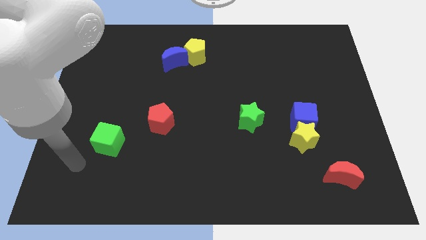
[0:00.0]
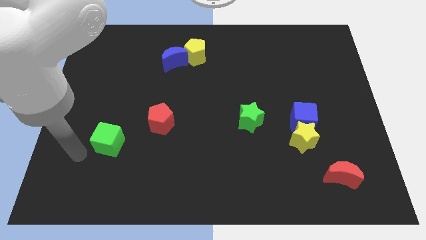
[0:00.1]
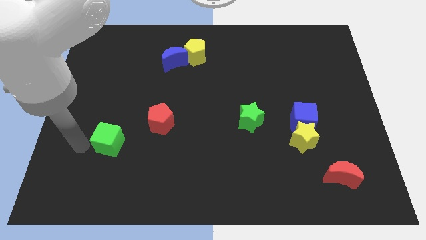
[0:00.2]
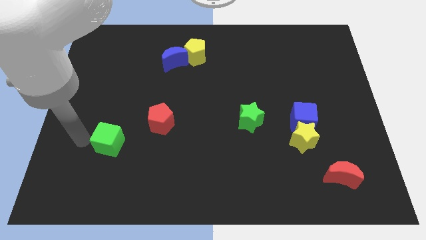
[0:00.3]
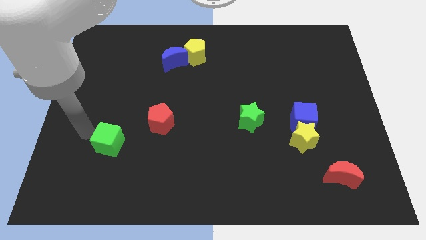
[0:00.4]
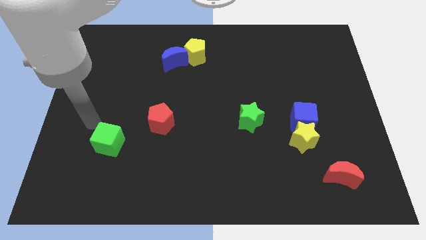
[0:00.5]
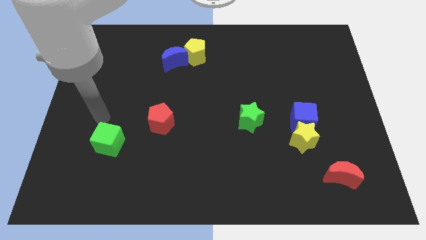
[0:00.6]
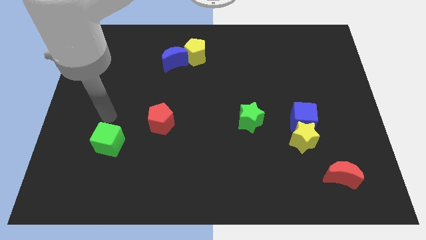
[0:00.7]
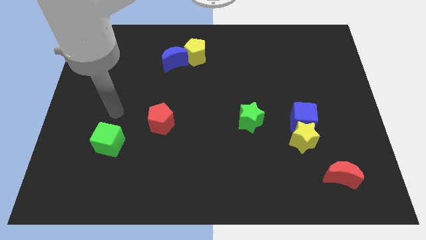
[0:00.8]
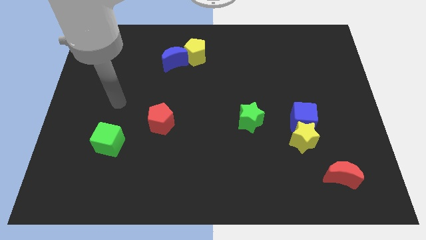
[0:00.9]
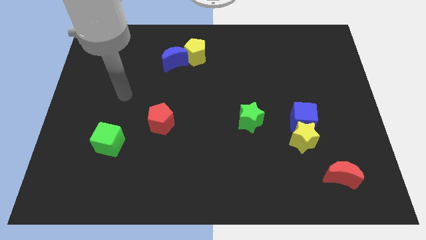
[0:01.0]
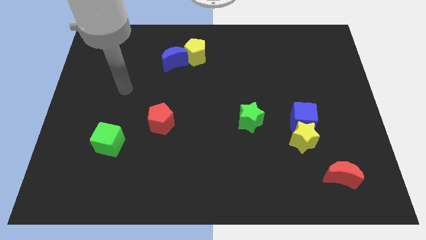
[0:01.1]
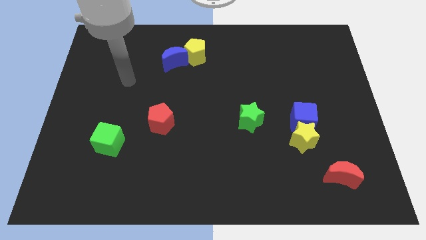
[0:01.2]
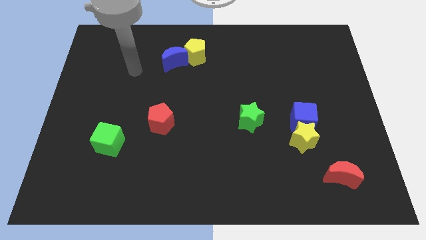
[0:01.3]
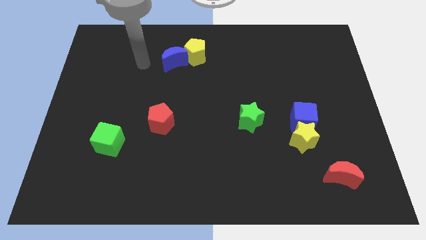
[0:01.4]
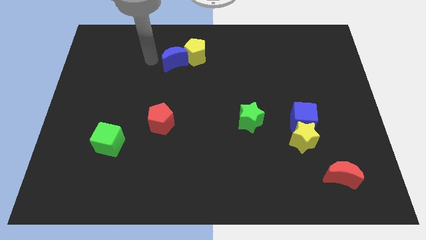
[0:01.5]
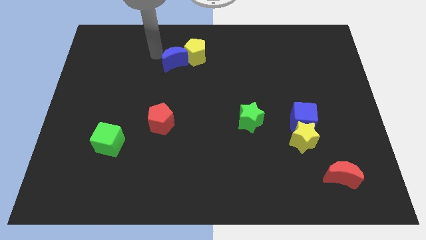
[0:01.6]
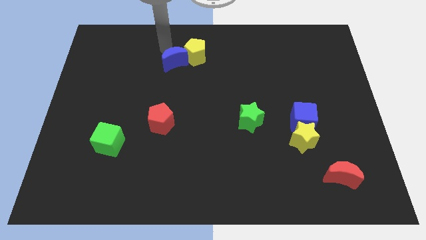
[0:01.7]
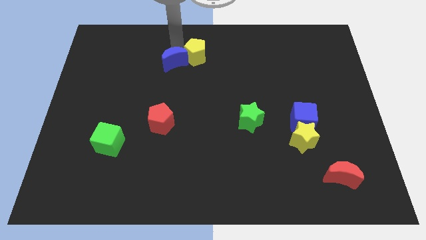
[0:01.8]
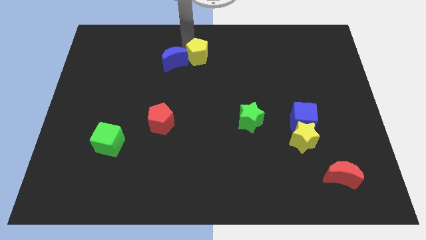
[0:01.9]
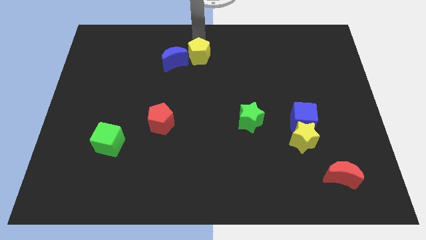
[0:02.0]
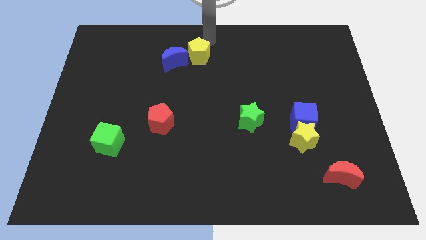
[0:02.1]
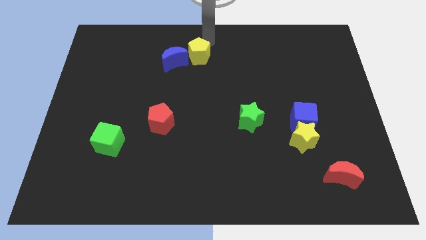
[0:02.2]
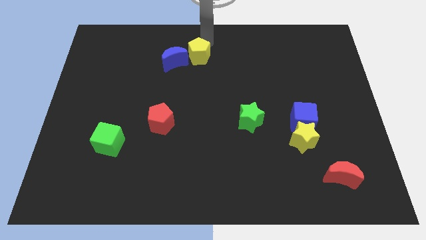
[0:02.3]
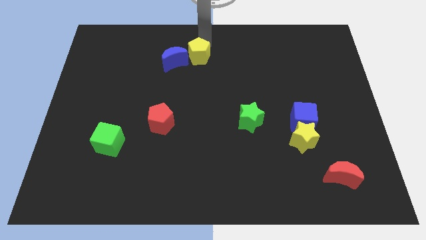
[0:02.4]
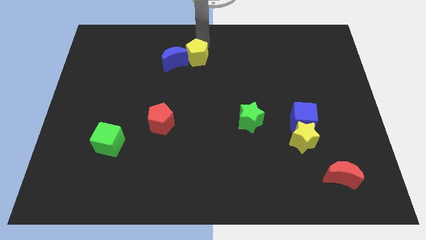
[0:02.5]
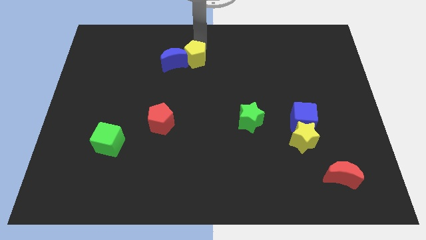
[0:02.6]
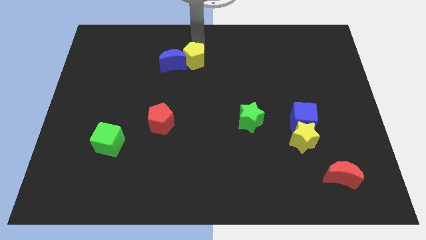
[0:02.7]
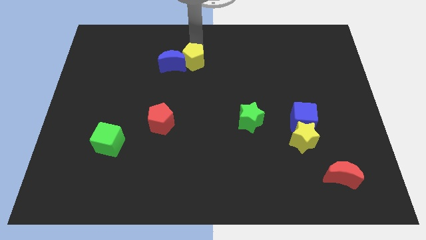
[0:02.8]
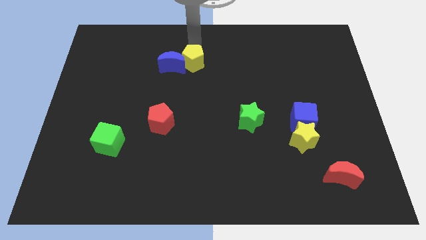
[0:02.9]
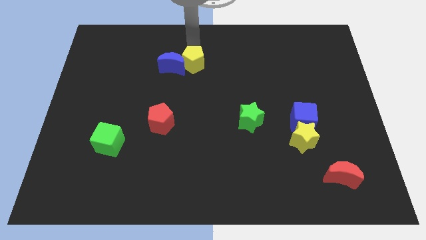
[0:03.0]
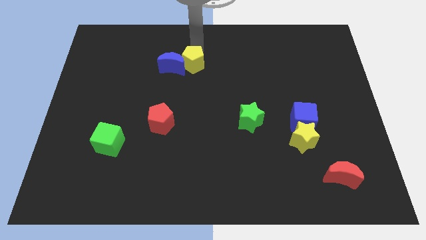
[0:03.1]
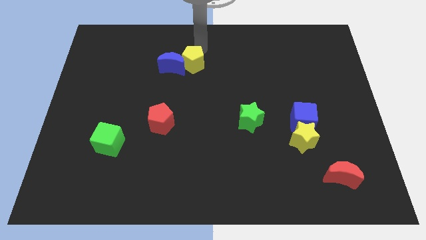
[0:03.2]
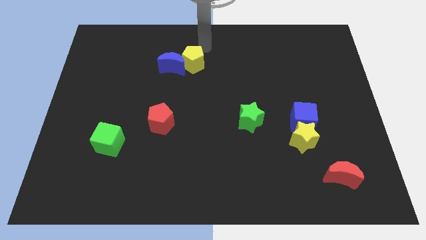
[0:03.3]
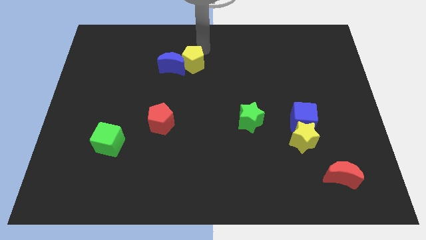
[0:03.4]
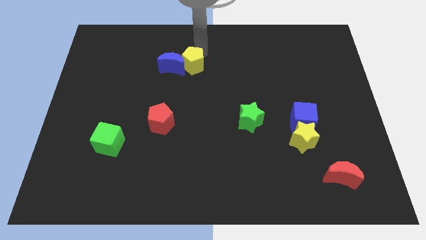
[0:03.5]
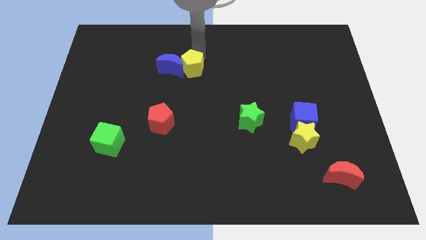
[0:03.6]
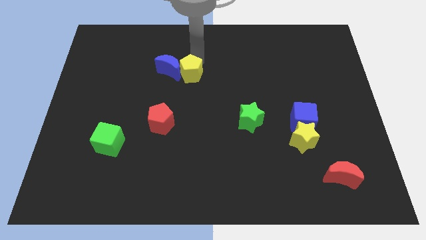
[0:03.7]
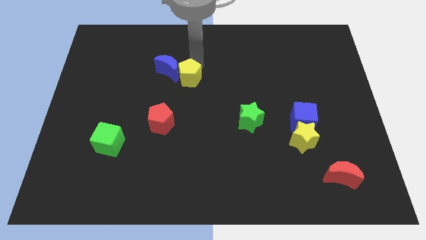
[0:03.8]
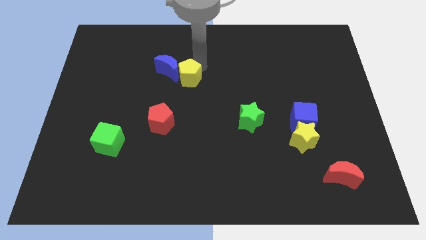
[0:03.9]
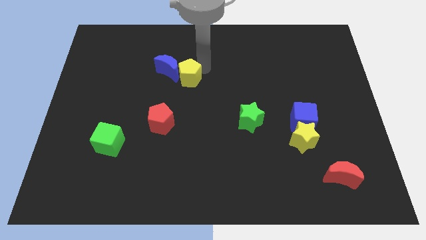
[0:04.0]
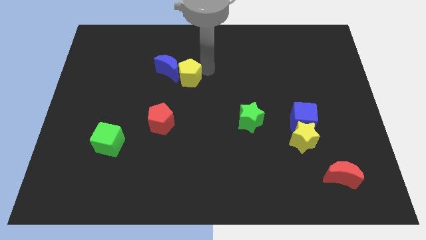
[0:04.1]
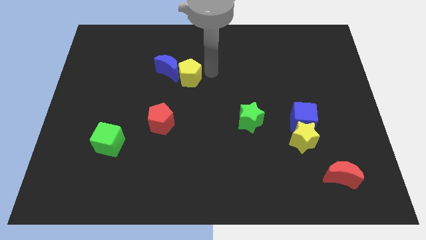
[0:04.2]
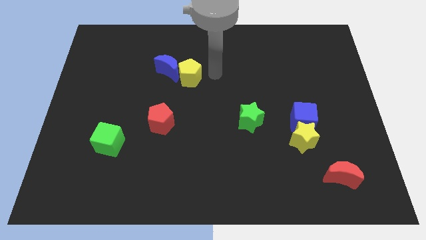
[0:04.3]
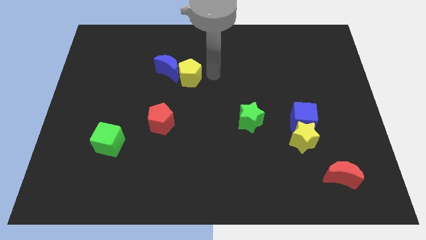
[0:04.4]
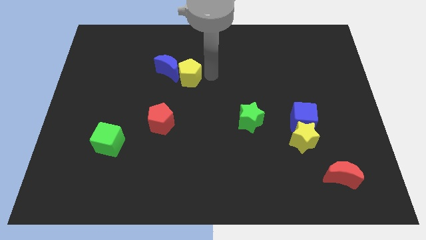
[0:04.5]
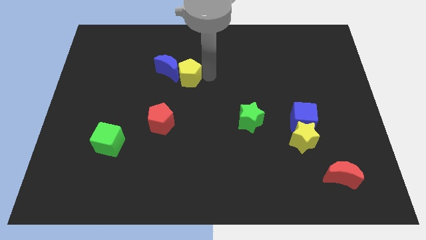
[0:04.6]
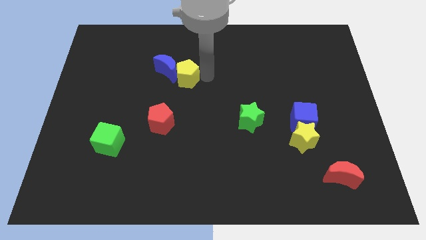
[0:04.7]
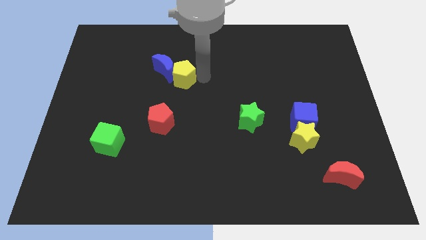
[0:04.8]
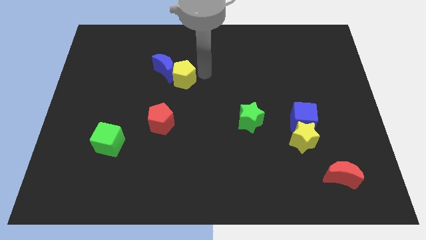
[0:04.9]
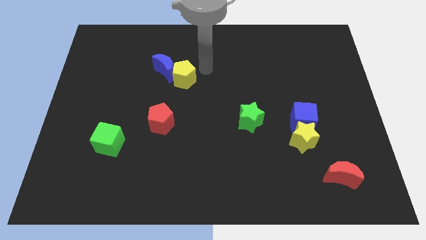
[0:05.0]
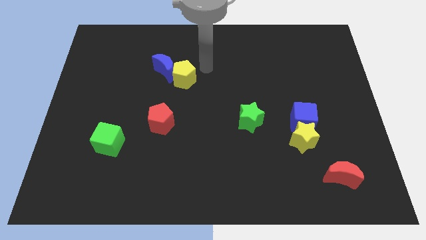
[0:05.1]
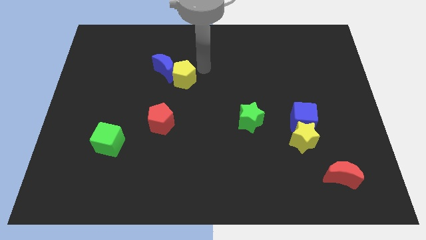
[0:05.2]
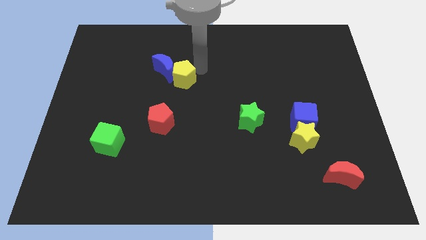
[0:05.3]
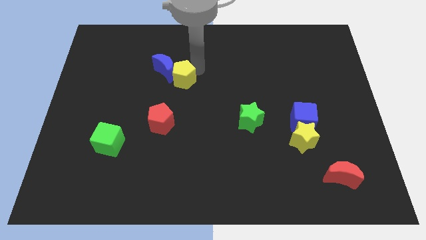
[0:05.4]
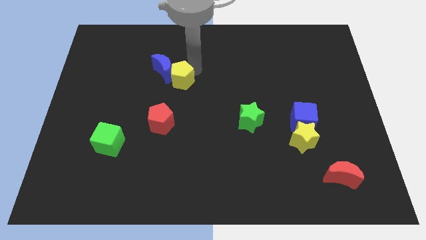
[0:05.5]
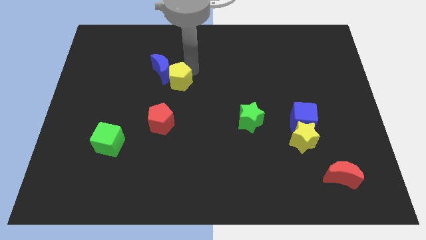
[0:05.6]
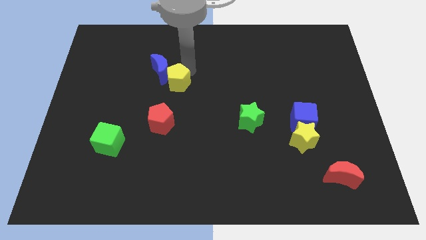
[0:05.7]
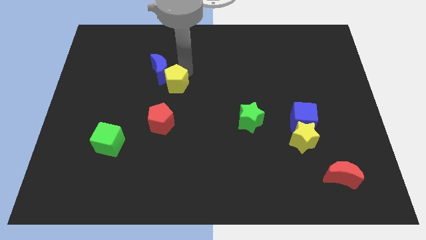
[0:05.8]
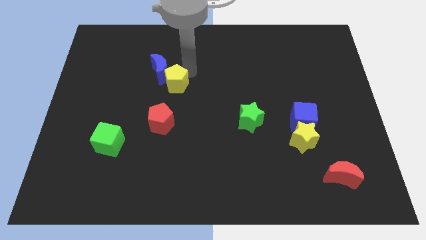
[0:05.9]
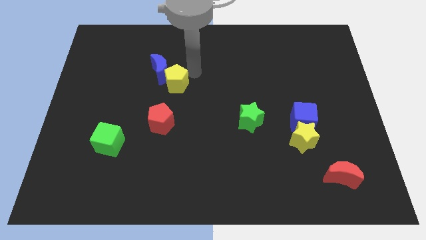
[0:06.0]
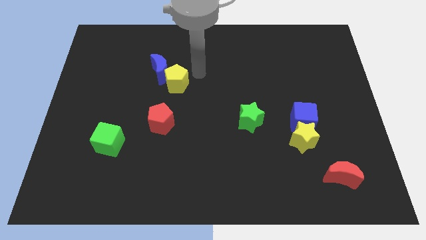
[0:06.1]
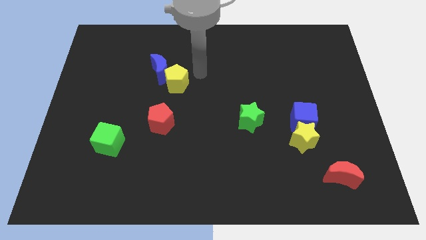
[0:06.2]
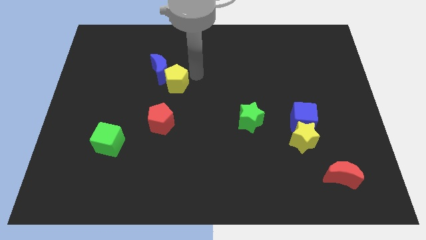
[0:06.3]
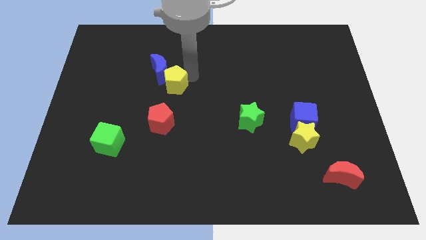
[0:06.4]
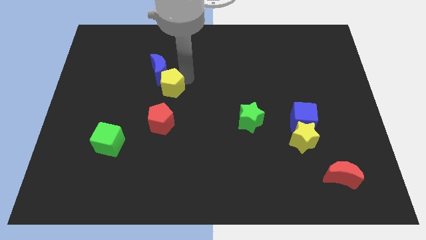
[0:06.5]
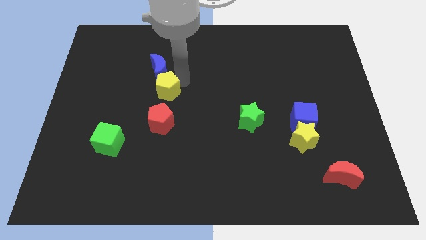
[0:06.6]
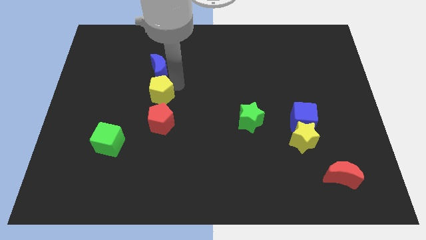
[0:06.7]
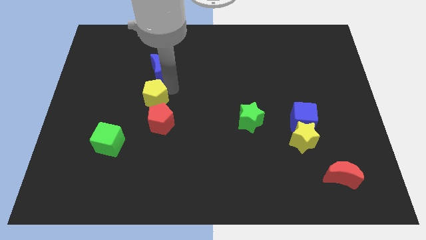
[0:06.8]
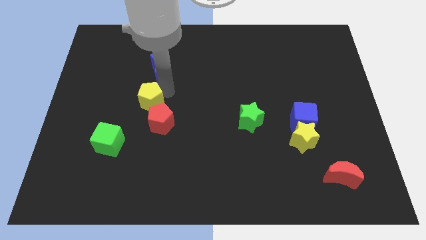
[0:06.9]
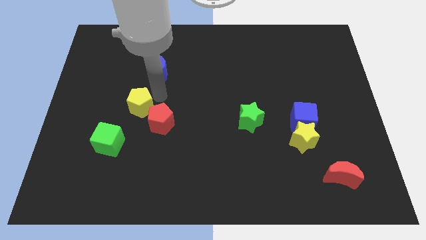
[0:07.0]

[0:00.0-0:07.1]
slide the yellow pentagon down and to the left diagonally

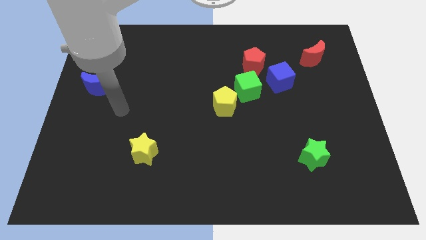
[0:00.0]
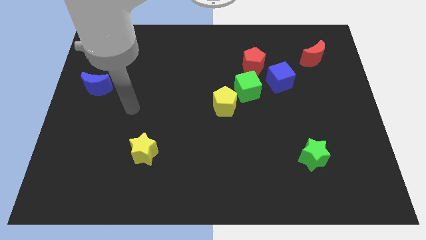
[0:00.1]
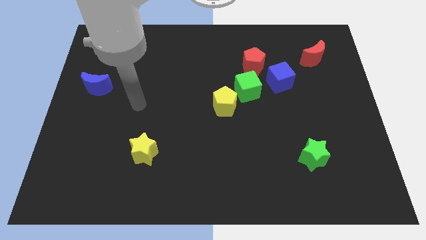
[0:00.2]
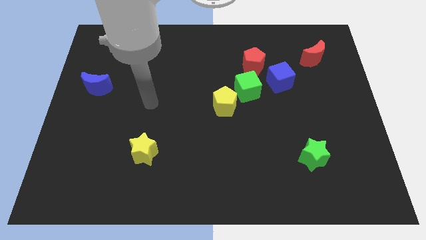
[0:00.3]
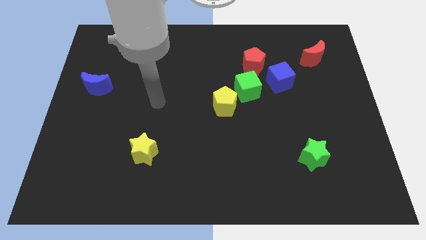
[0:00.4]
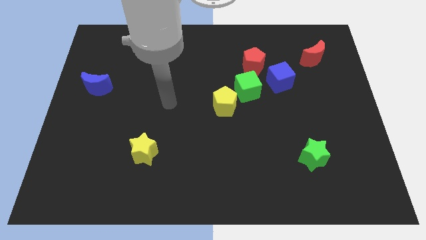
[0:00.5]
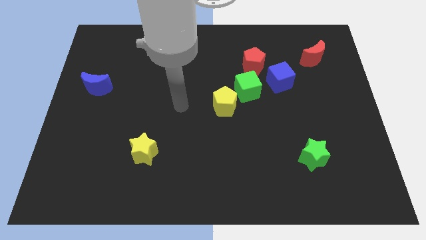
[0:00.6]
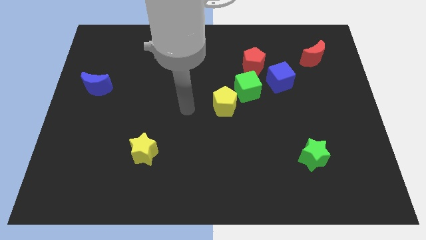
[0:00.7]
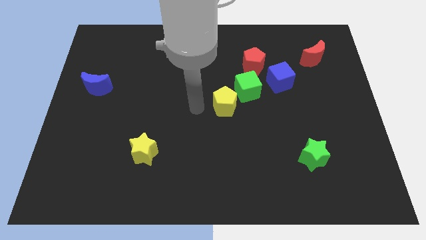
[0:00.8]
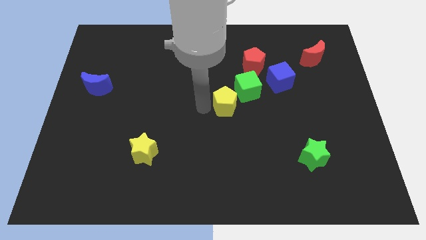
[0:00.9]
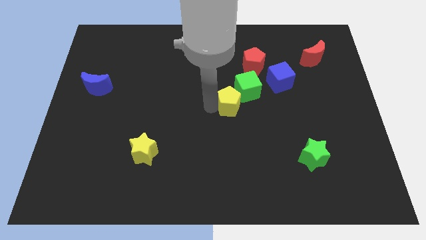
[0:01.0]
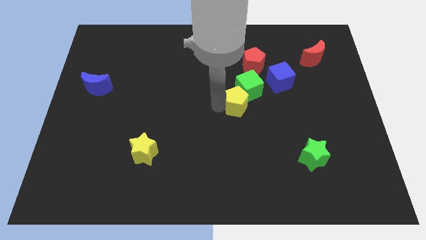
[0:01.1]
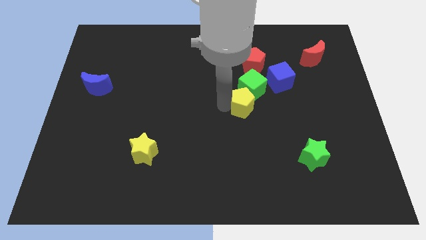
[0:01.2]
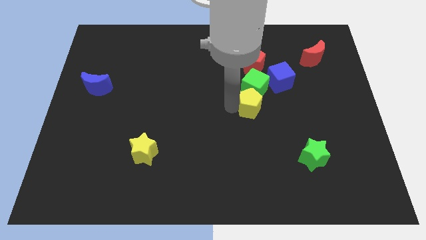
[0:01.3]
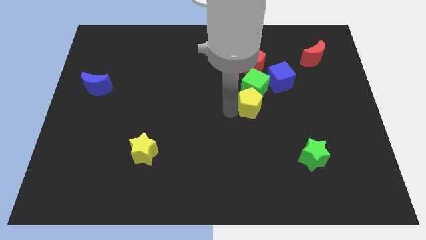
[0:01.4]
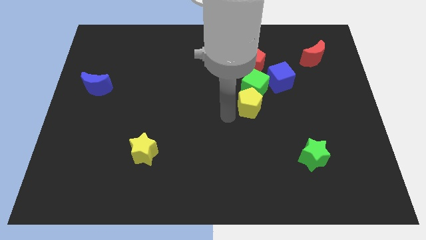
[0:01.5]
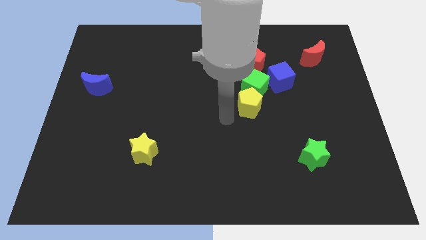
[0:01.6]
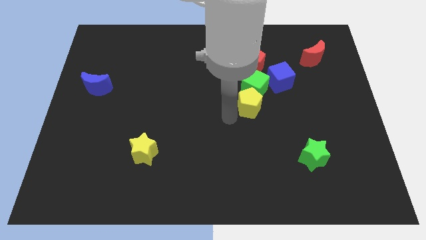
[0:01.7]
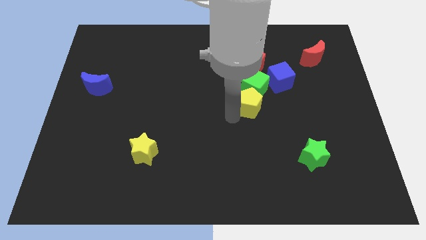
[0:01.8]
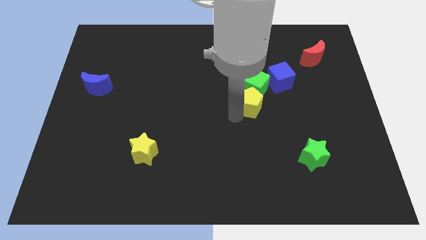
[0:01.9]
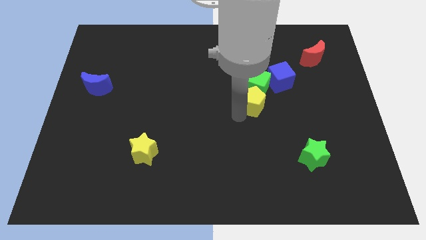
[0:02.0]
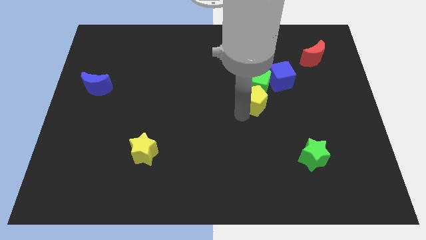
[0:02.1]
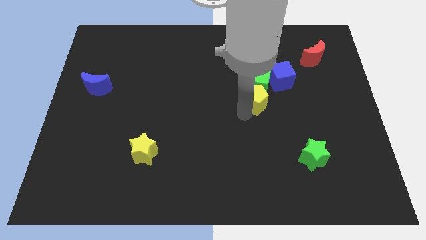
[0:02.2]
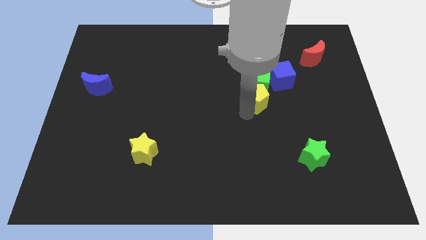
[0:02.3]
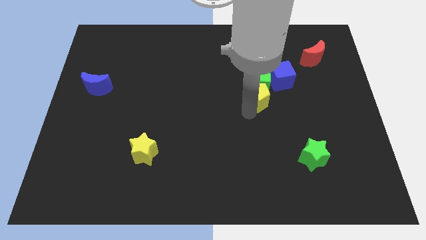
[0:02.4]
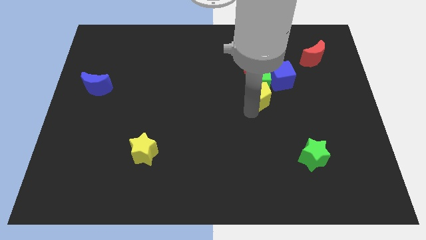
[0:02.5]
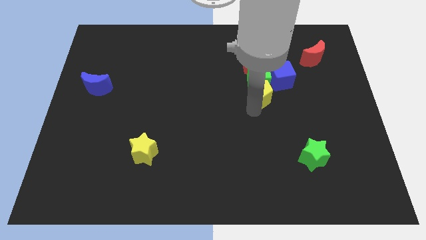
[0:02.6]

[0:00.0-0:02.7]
push the yellow pentagon a little diagonally up and to the right
